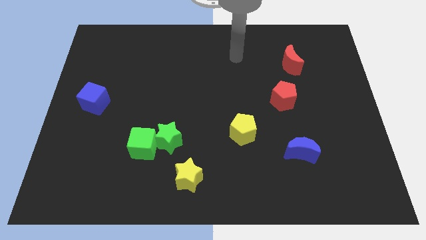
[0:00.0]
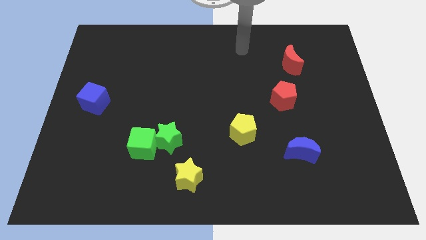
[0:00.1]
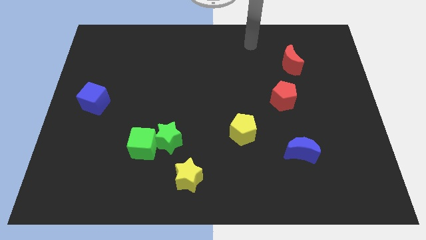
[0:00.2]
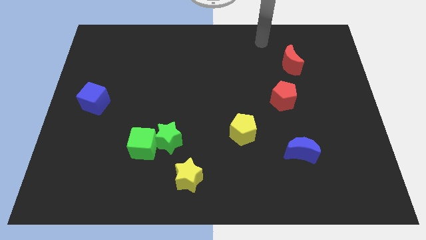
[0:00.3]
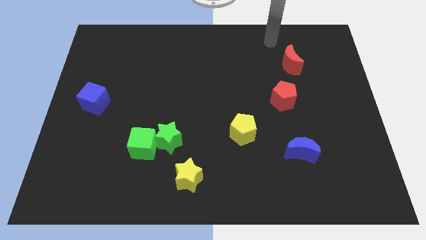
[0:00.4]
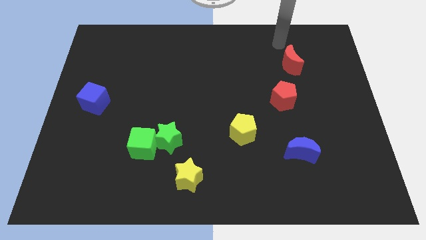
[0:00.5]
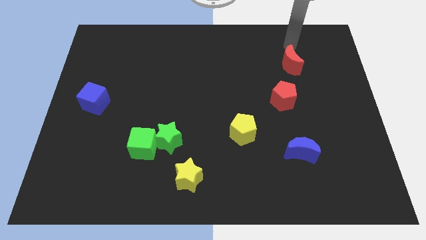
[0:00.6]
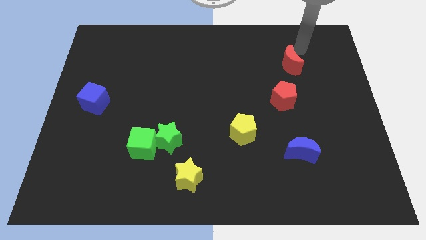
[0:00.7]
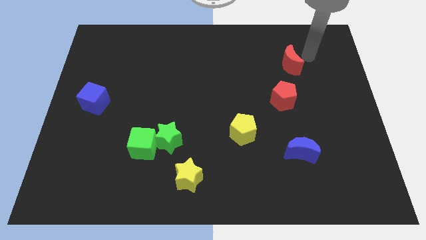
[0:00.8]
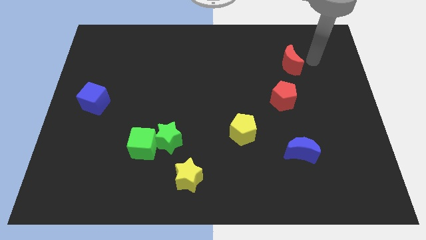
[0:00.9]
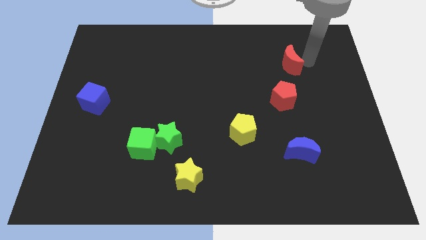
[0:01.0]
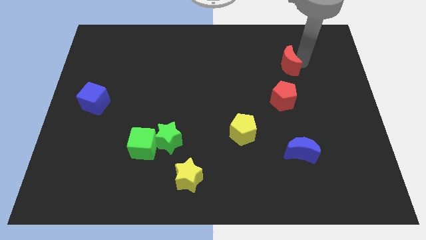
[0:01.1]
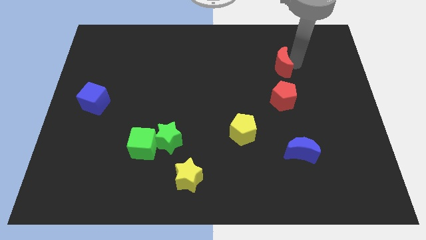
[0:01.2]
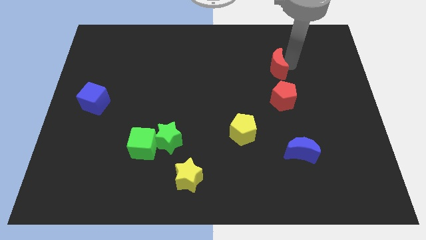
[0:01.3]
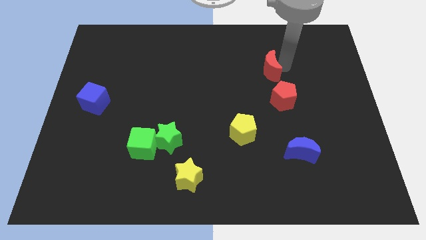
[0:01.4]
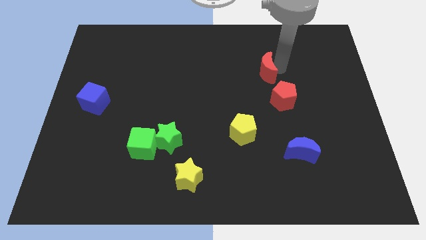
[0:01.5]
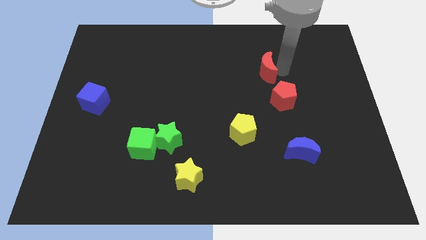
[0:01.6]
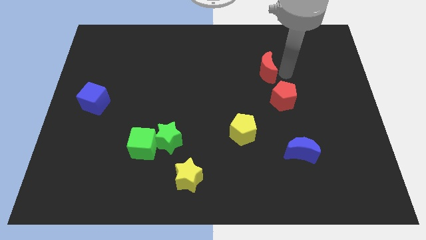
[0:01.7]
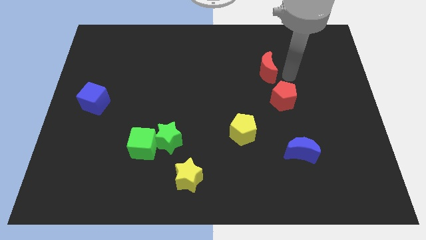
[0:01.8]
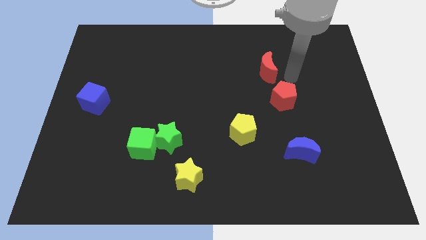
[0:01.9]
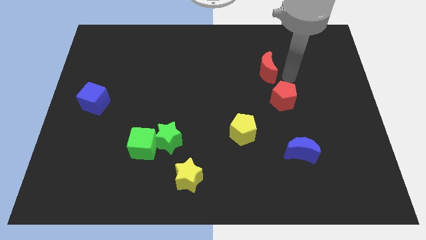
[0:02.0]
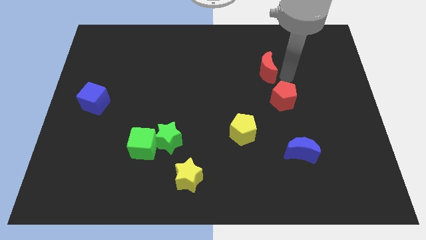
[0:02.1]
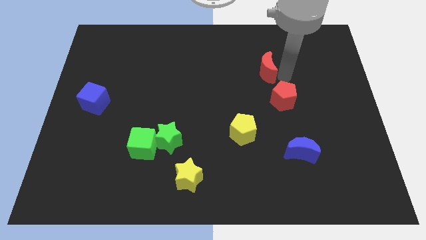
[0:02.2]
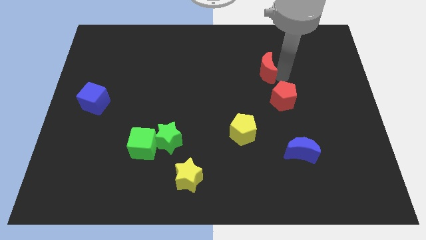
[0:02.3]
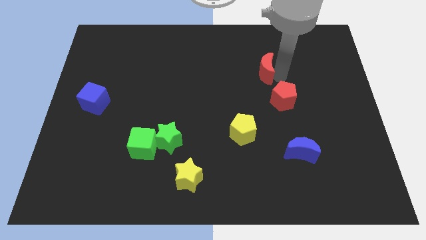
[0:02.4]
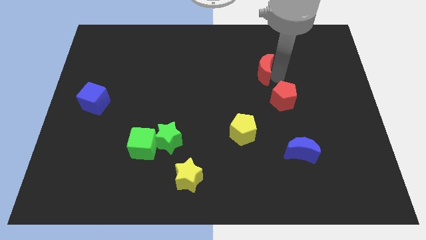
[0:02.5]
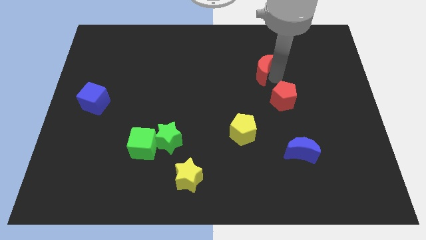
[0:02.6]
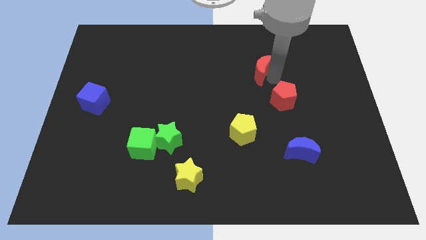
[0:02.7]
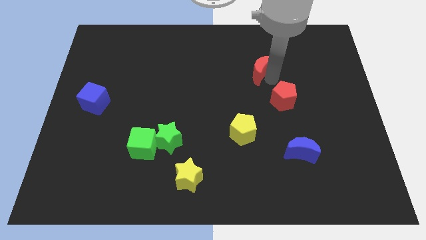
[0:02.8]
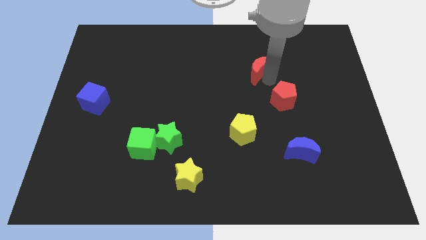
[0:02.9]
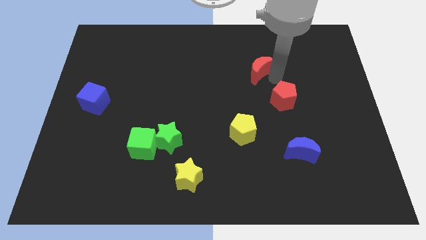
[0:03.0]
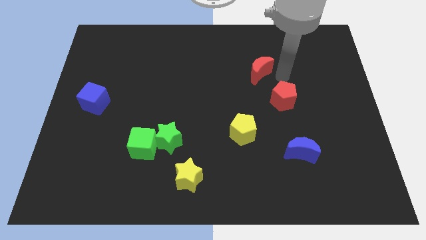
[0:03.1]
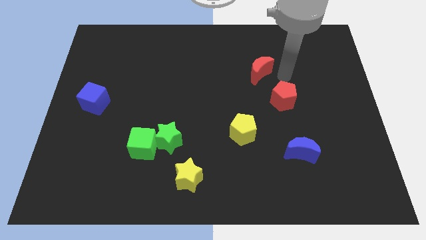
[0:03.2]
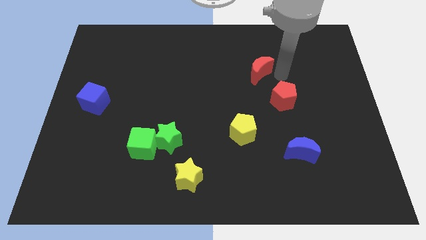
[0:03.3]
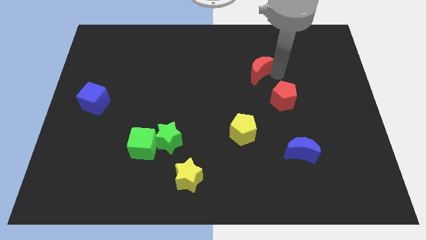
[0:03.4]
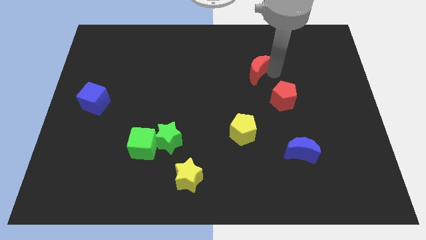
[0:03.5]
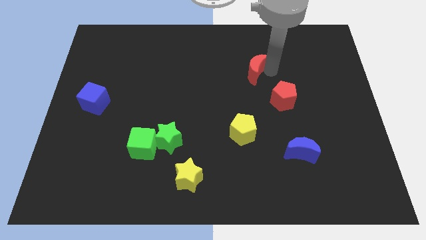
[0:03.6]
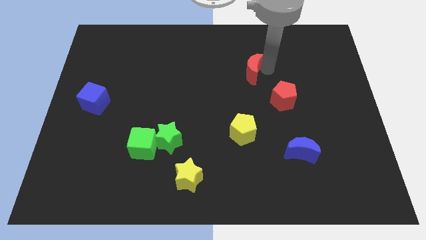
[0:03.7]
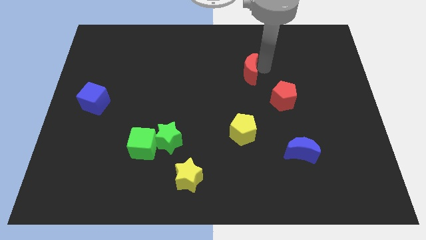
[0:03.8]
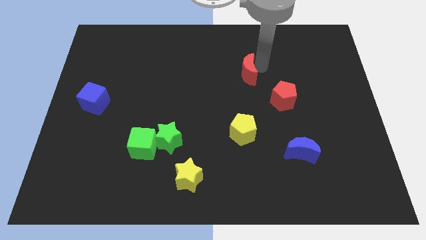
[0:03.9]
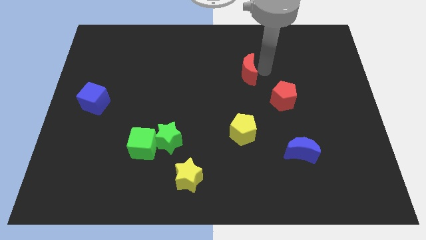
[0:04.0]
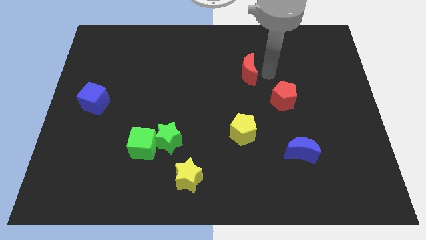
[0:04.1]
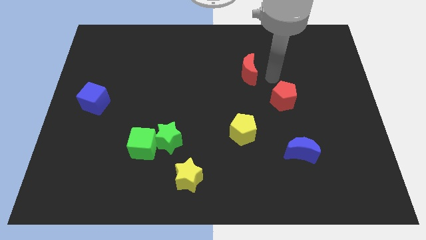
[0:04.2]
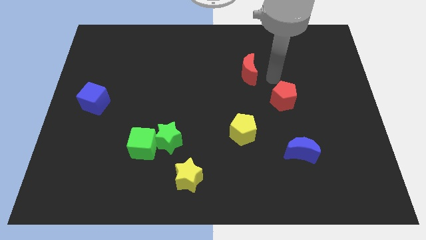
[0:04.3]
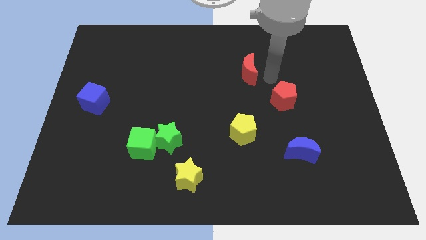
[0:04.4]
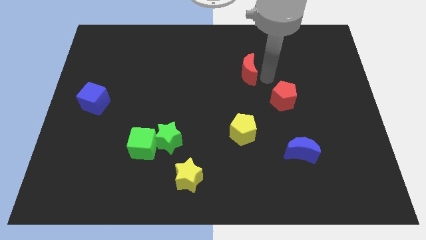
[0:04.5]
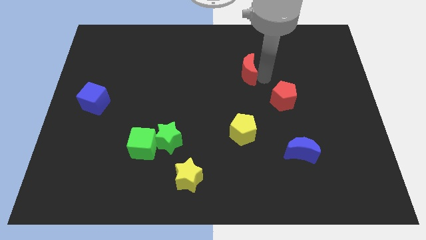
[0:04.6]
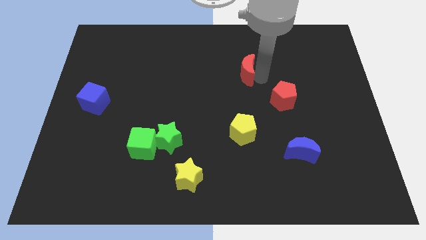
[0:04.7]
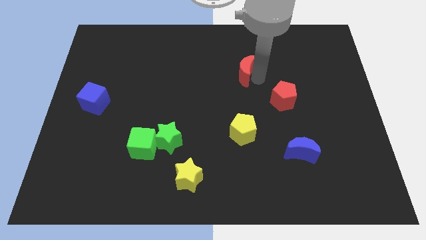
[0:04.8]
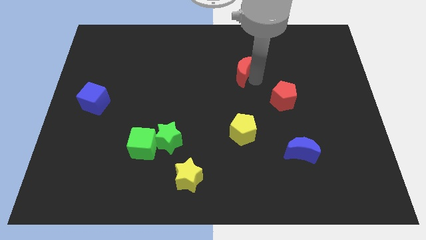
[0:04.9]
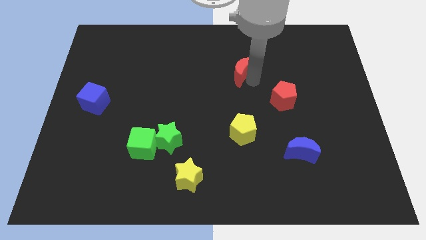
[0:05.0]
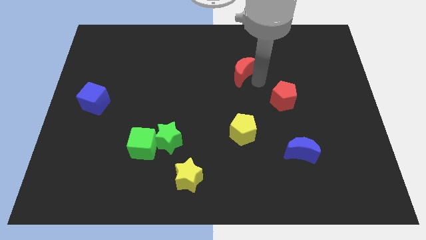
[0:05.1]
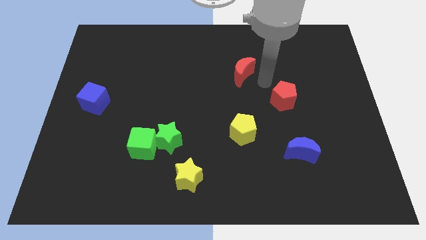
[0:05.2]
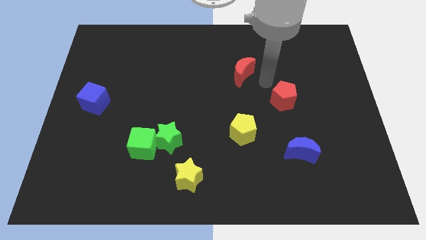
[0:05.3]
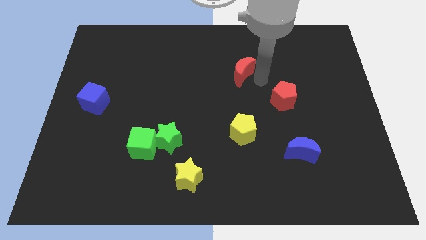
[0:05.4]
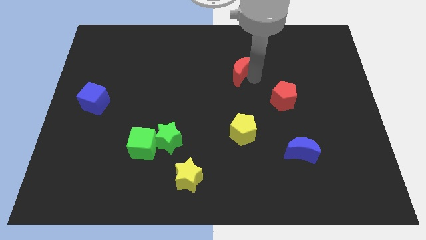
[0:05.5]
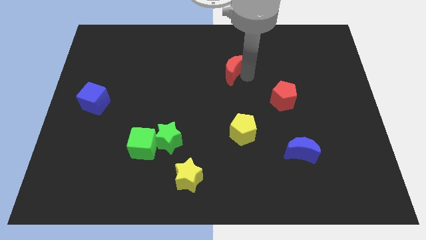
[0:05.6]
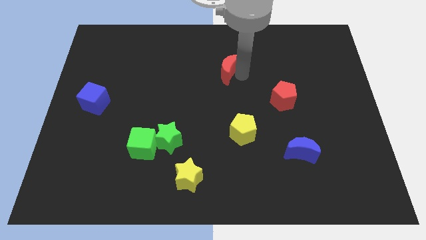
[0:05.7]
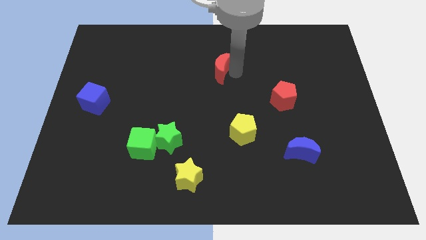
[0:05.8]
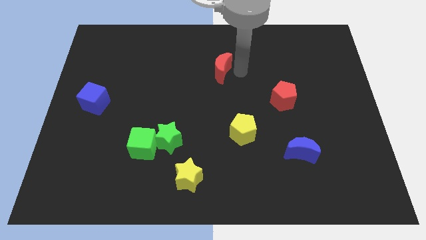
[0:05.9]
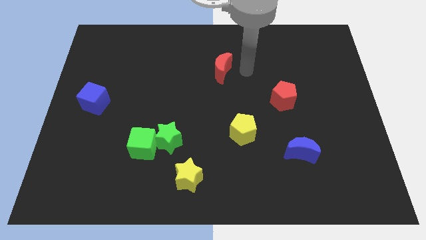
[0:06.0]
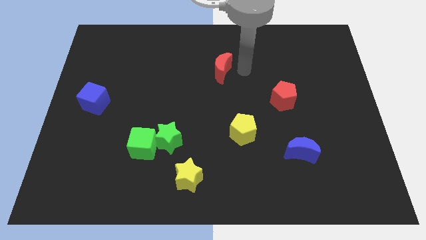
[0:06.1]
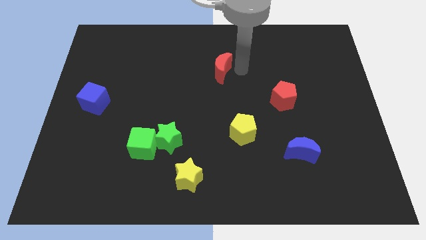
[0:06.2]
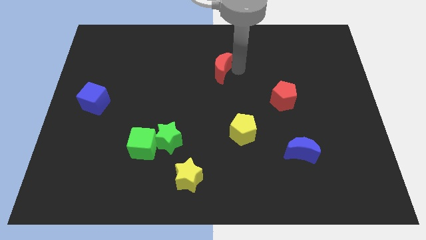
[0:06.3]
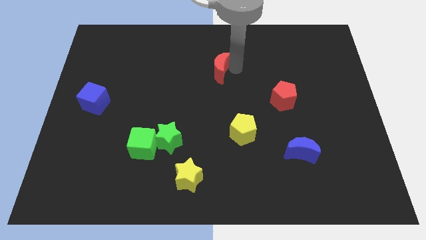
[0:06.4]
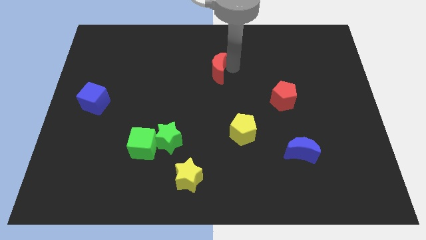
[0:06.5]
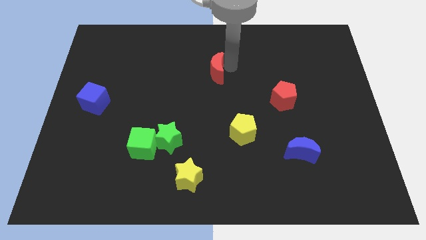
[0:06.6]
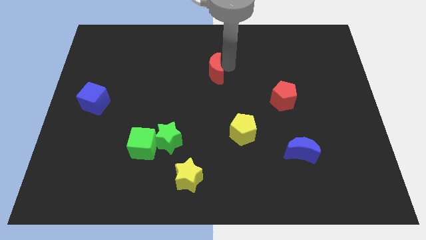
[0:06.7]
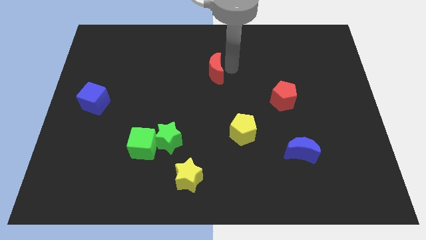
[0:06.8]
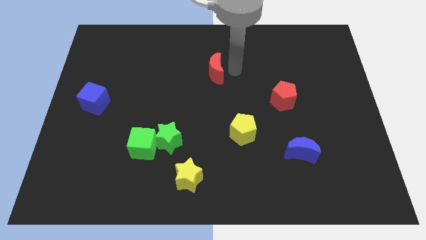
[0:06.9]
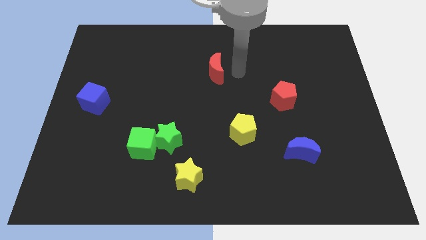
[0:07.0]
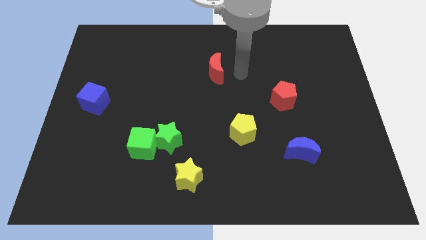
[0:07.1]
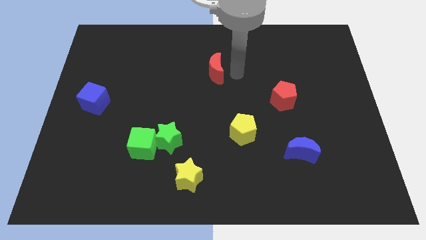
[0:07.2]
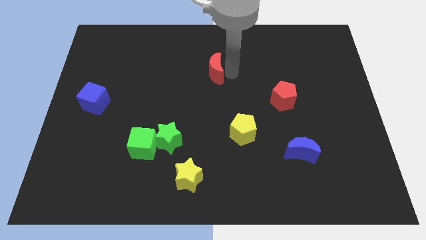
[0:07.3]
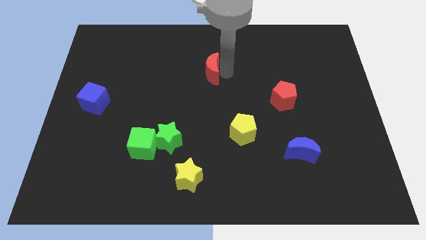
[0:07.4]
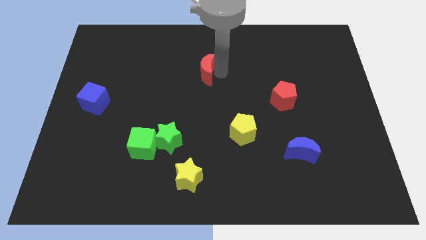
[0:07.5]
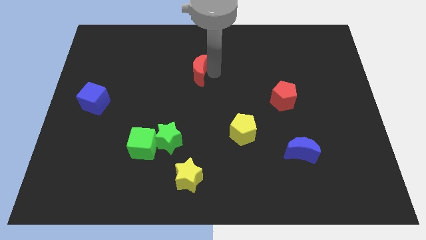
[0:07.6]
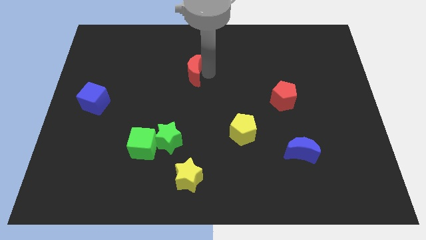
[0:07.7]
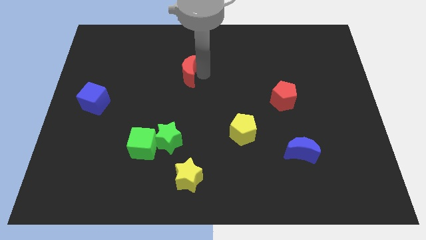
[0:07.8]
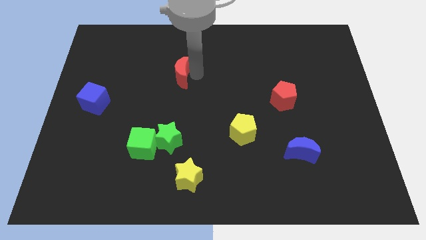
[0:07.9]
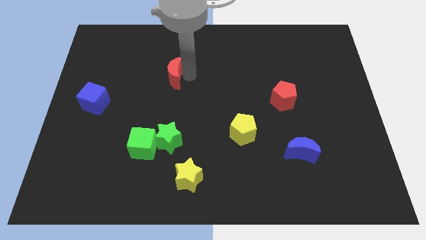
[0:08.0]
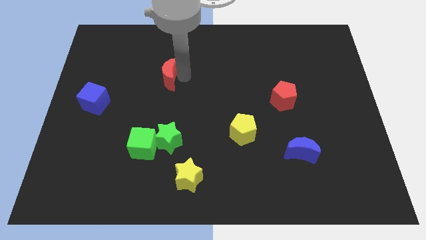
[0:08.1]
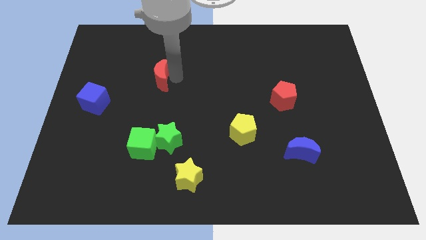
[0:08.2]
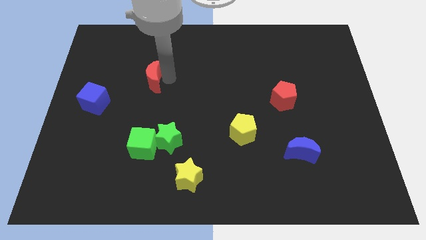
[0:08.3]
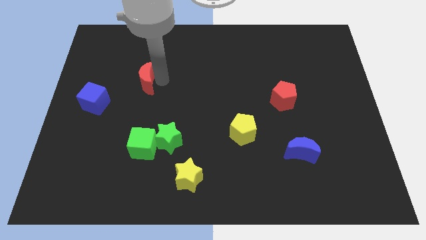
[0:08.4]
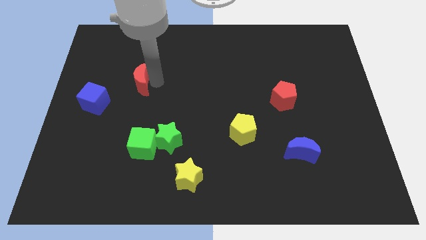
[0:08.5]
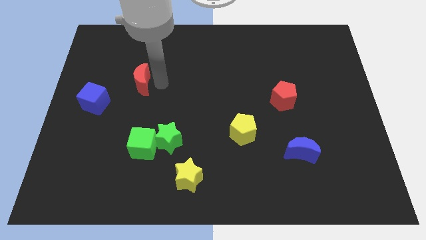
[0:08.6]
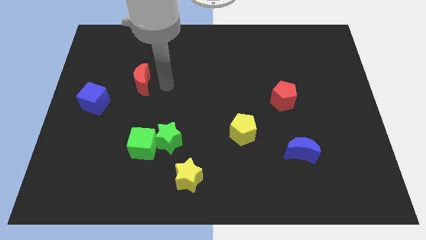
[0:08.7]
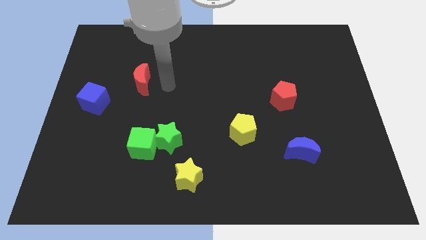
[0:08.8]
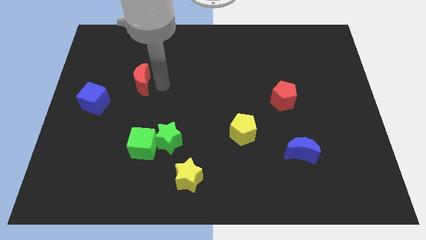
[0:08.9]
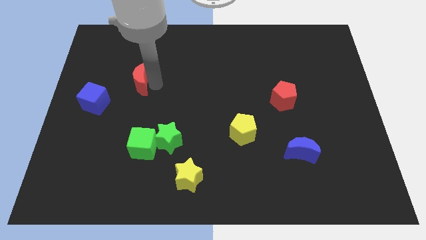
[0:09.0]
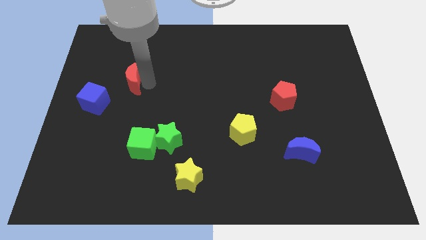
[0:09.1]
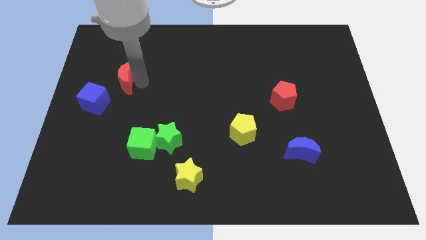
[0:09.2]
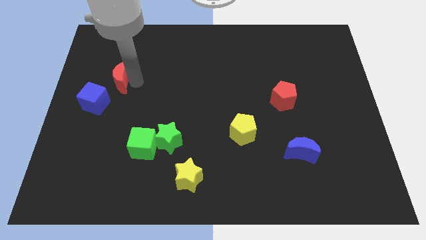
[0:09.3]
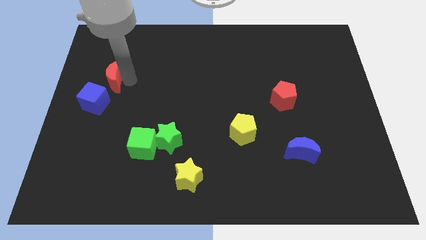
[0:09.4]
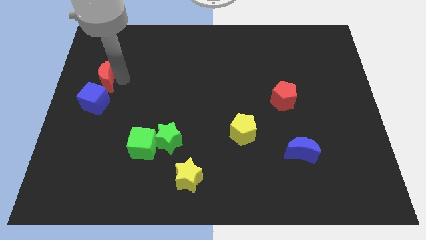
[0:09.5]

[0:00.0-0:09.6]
push the red moon to the center left
